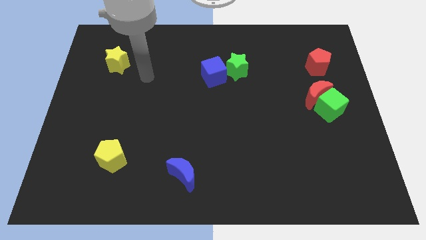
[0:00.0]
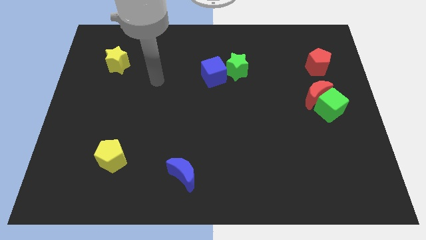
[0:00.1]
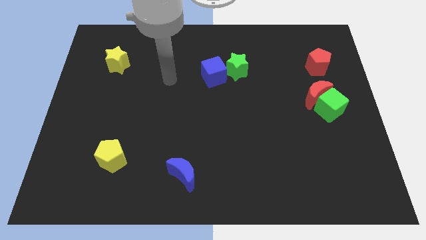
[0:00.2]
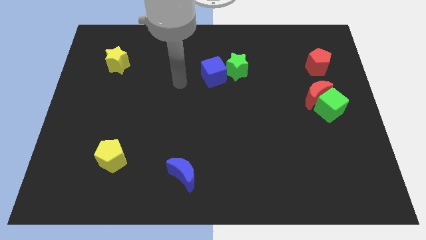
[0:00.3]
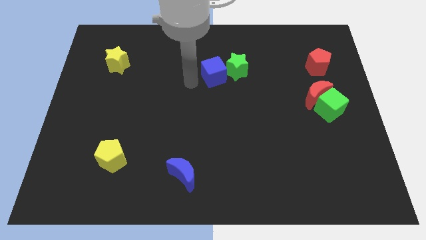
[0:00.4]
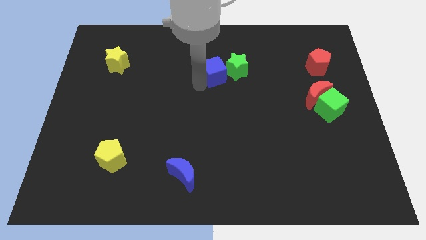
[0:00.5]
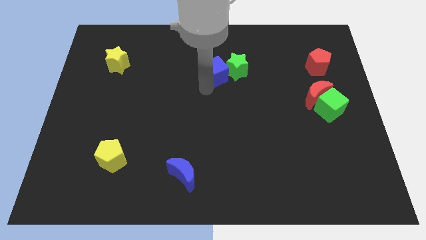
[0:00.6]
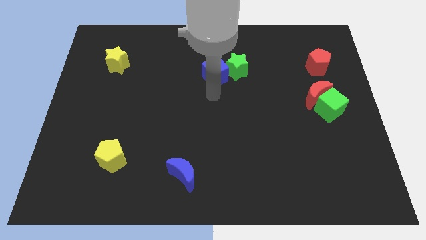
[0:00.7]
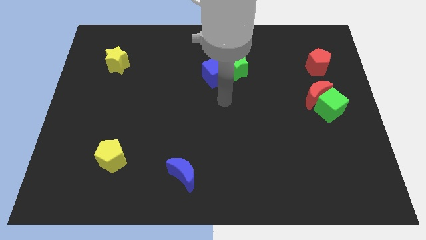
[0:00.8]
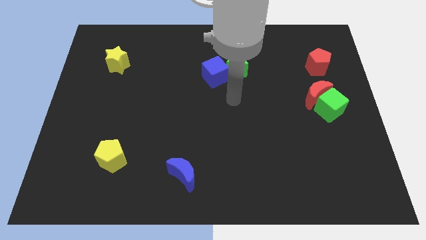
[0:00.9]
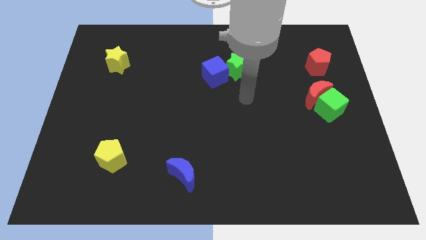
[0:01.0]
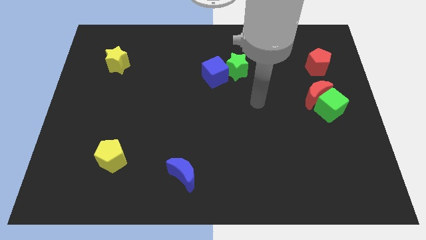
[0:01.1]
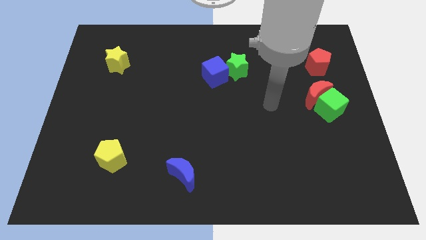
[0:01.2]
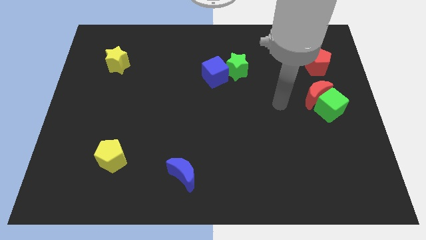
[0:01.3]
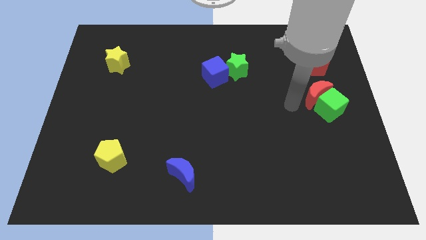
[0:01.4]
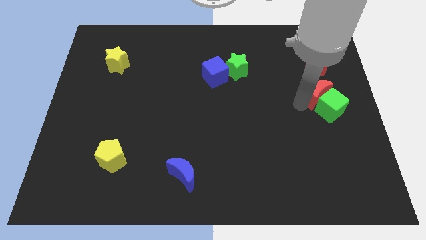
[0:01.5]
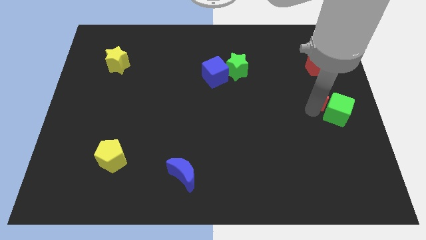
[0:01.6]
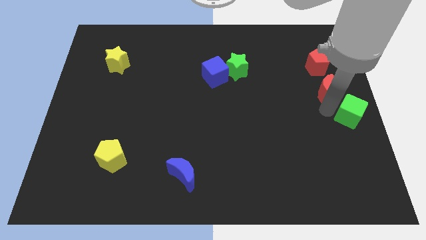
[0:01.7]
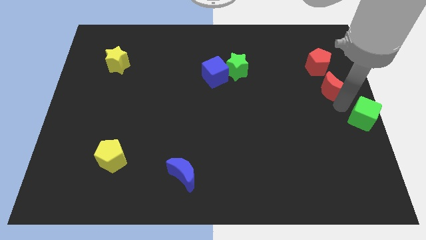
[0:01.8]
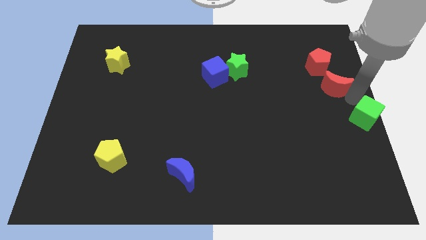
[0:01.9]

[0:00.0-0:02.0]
separate the red moon from the green cube

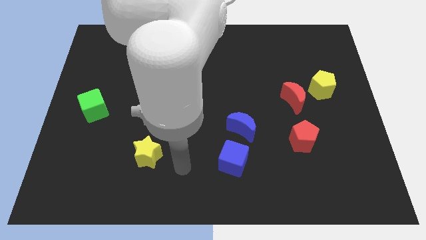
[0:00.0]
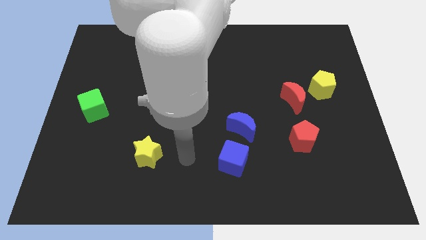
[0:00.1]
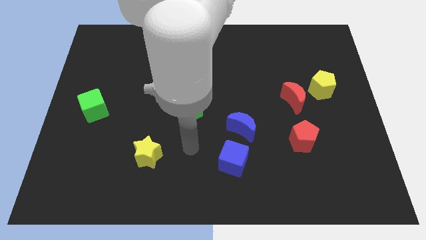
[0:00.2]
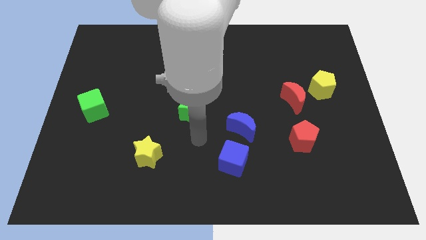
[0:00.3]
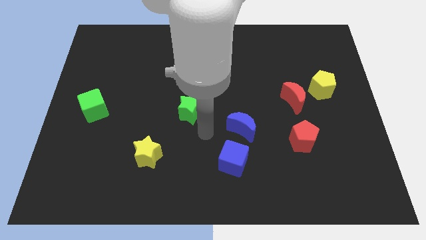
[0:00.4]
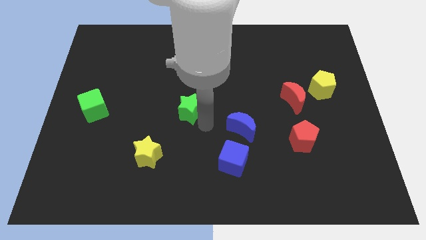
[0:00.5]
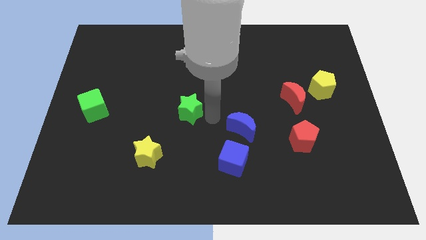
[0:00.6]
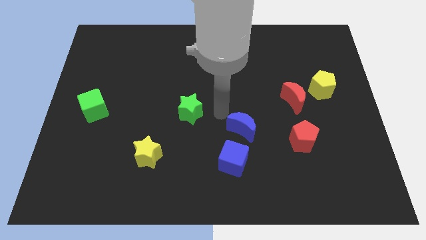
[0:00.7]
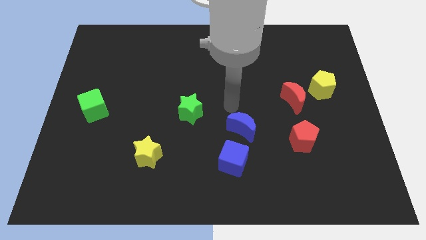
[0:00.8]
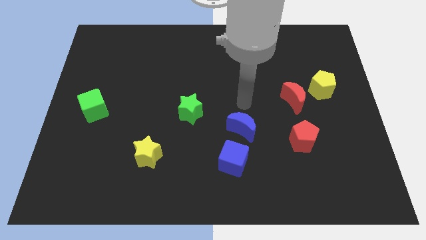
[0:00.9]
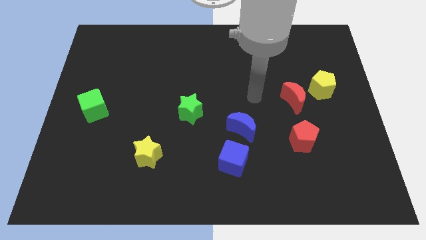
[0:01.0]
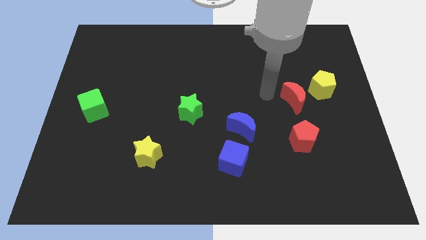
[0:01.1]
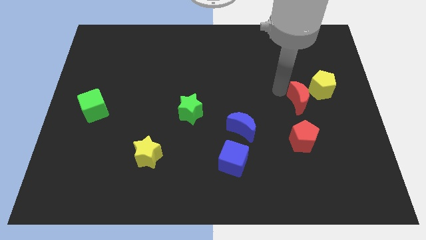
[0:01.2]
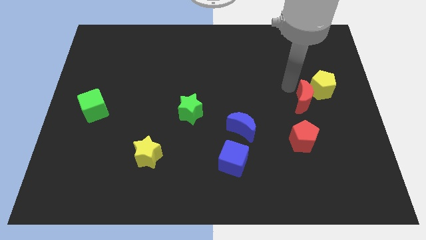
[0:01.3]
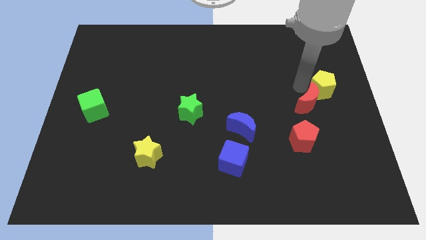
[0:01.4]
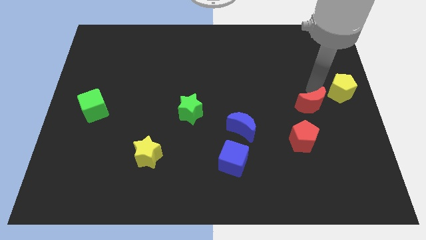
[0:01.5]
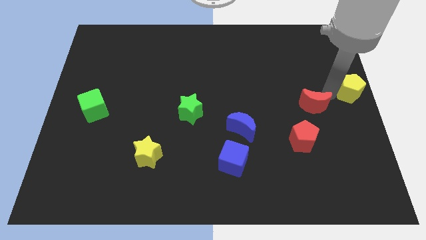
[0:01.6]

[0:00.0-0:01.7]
pull the red moon apart from the yellow pentagon

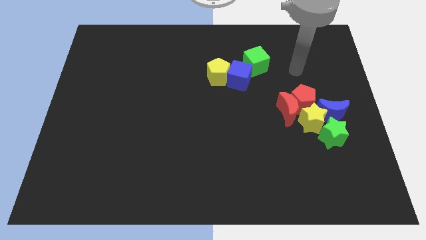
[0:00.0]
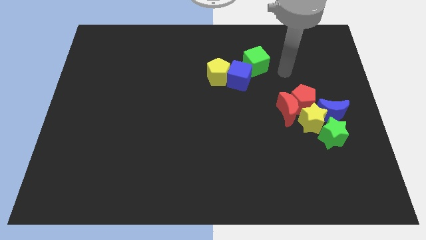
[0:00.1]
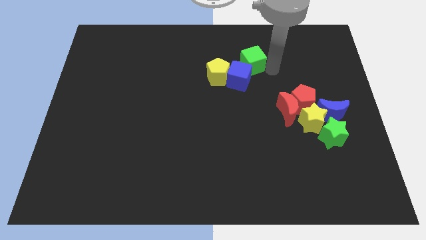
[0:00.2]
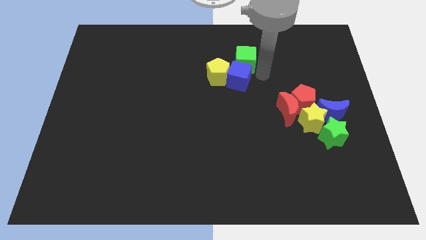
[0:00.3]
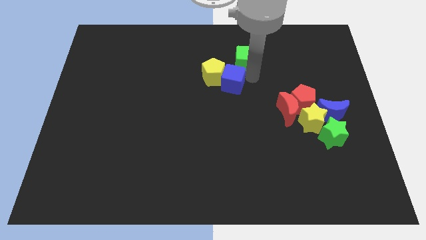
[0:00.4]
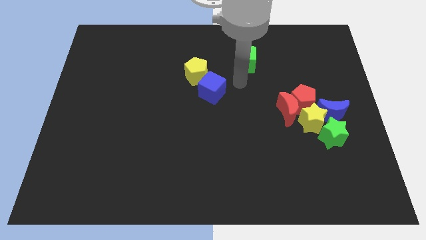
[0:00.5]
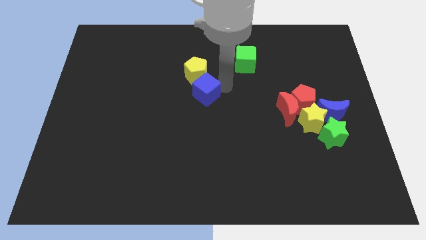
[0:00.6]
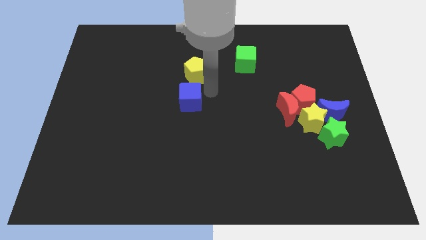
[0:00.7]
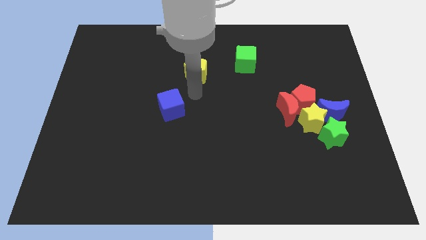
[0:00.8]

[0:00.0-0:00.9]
pull the yellow pentagon apart from the blue cube

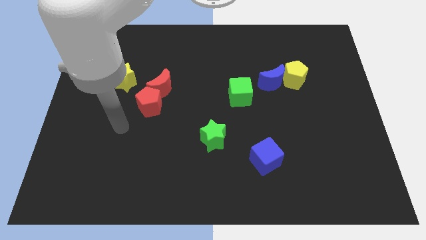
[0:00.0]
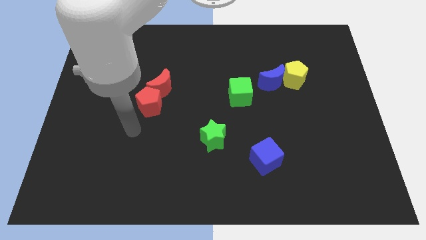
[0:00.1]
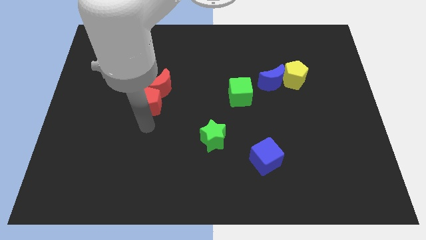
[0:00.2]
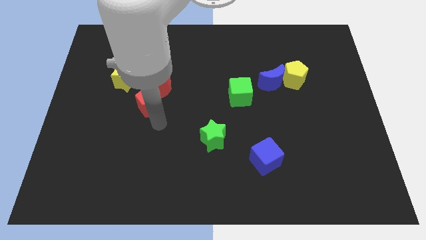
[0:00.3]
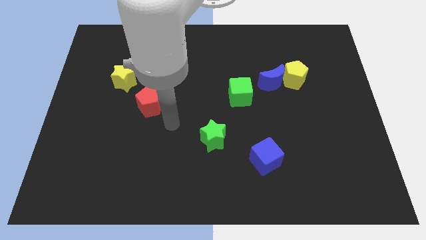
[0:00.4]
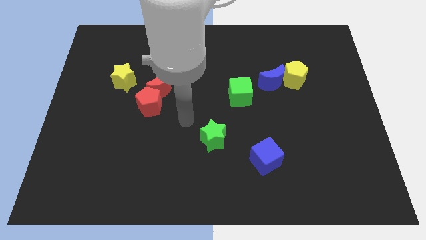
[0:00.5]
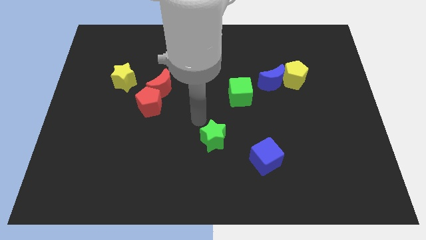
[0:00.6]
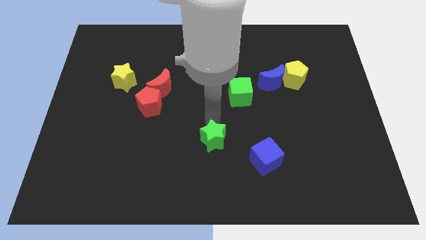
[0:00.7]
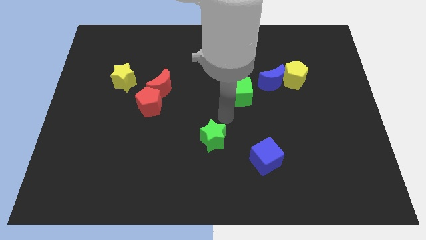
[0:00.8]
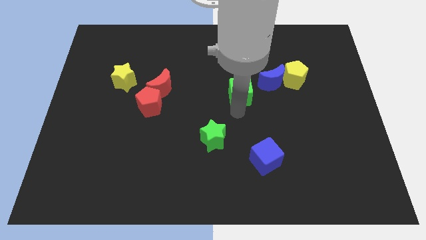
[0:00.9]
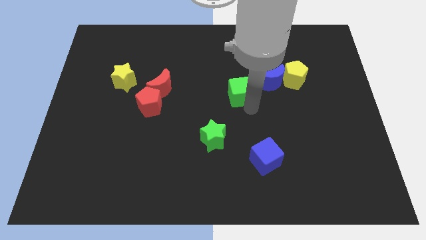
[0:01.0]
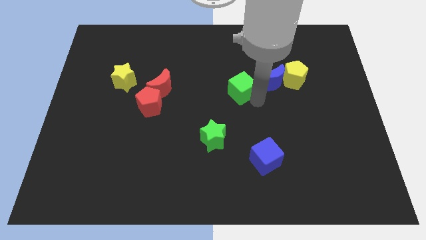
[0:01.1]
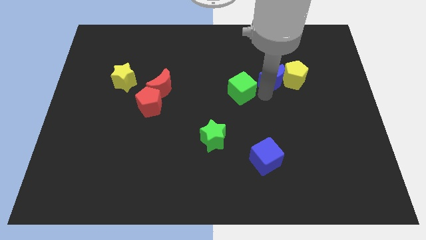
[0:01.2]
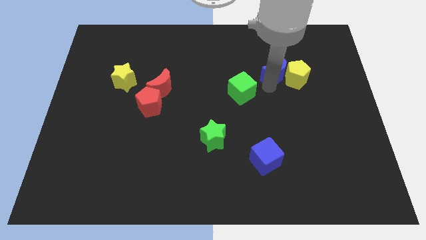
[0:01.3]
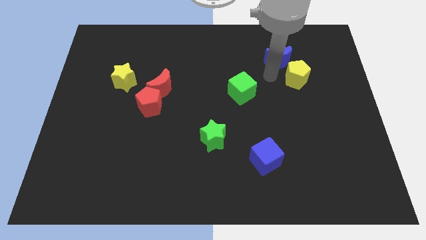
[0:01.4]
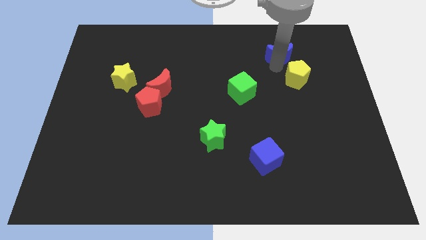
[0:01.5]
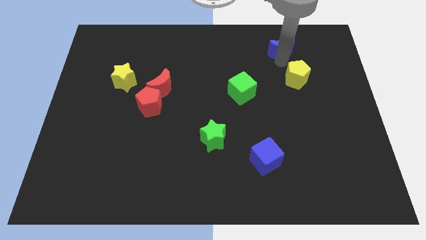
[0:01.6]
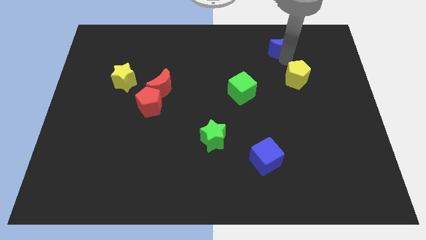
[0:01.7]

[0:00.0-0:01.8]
move the yellow pentagon away from the blue moon

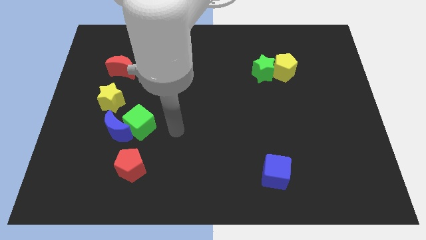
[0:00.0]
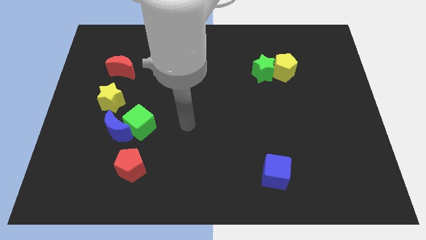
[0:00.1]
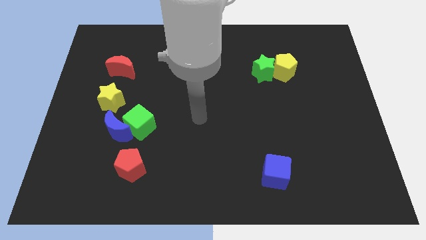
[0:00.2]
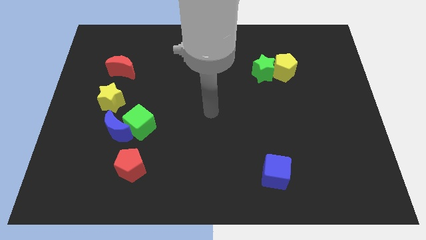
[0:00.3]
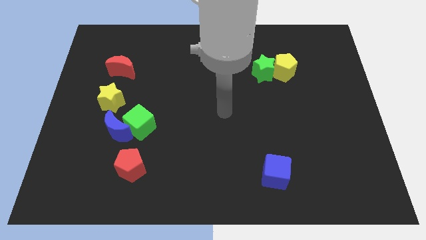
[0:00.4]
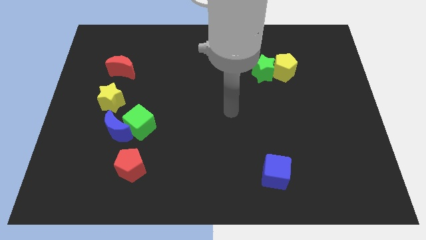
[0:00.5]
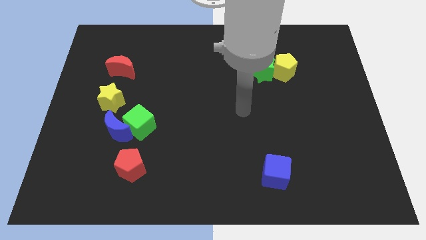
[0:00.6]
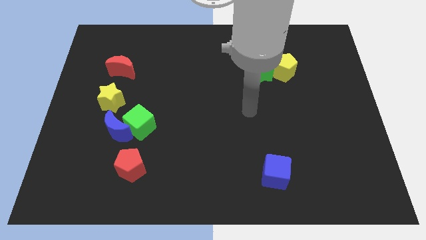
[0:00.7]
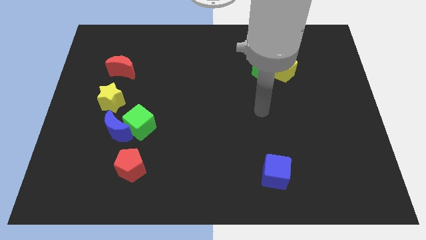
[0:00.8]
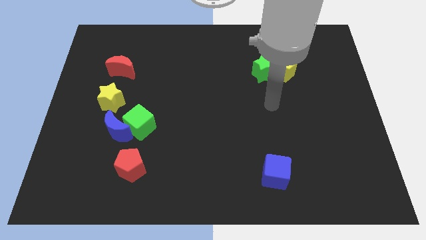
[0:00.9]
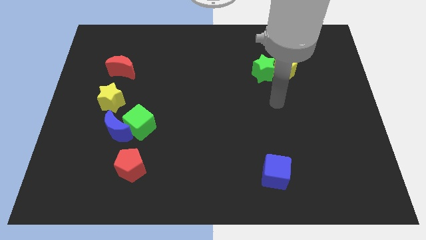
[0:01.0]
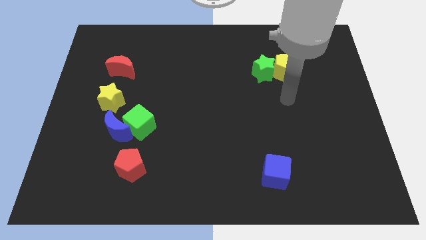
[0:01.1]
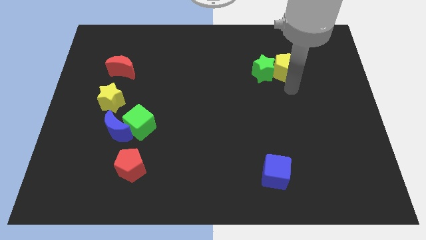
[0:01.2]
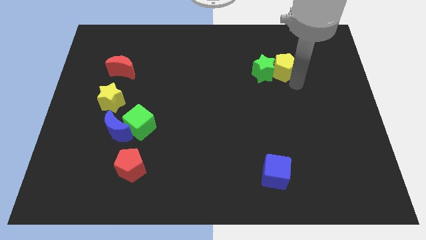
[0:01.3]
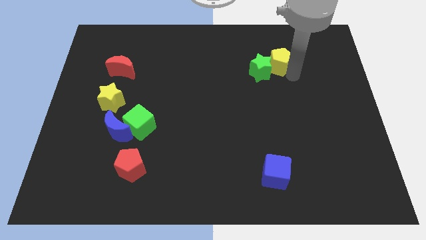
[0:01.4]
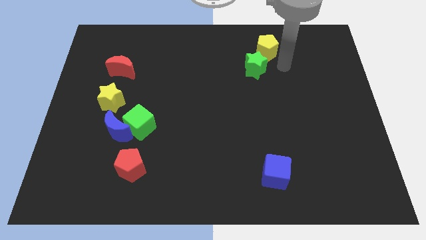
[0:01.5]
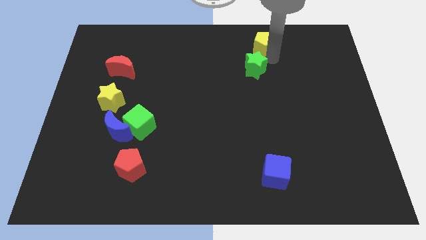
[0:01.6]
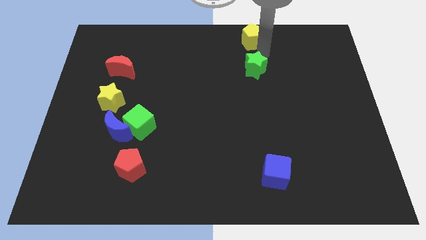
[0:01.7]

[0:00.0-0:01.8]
move the green star away from the yellow pentagon

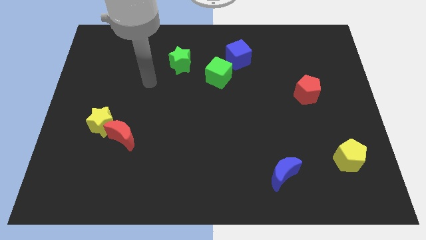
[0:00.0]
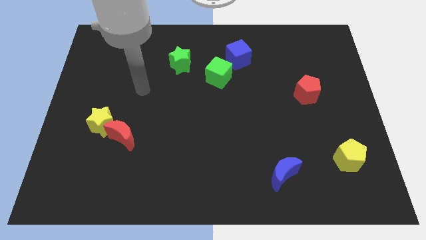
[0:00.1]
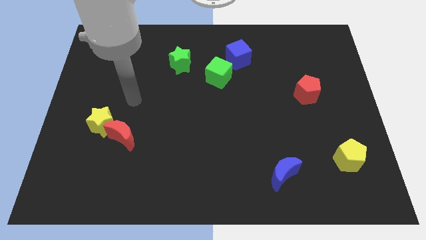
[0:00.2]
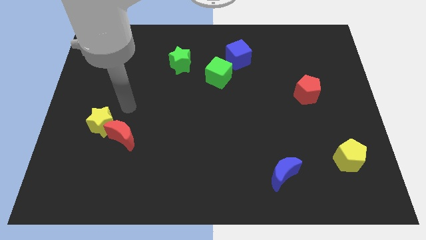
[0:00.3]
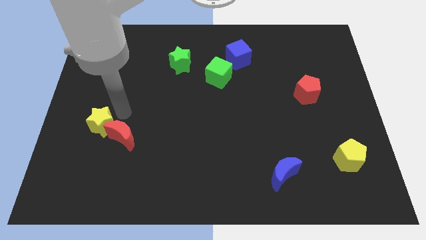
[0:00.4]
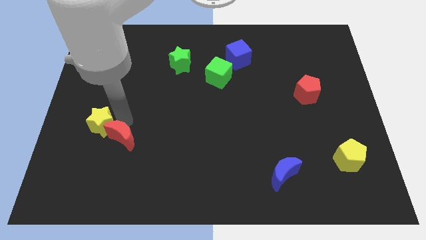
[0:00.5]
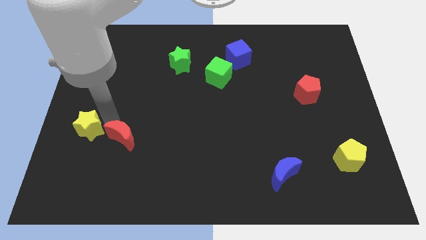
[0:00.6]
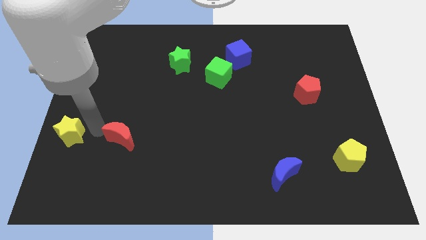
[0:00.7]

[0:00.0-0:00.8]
pull the red moon apart from the yellow star

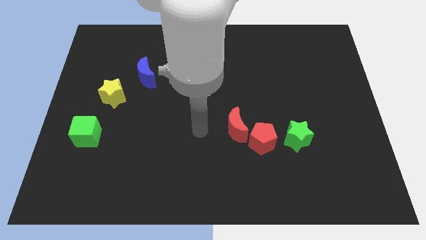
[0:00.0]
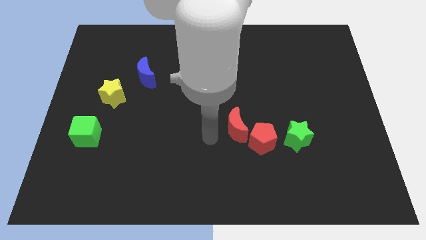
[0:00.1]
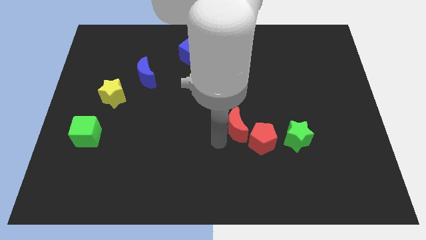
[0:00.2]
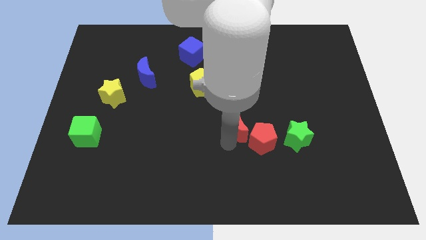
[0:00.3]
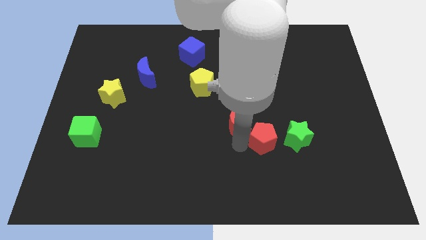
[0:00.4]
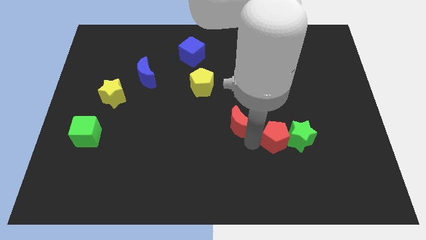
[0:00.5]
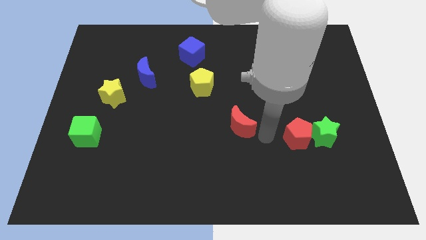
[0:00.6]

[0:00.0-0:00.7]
separate the red moon from the red pentagon
